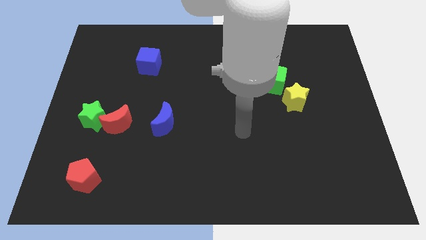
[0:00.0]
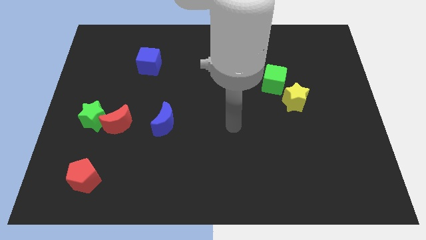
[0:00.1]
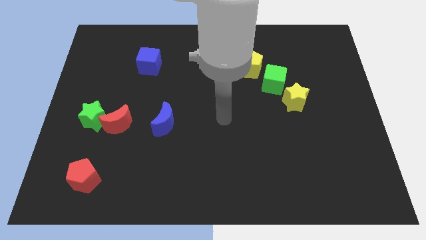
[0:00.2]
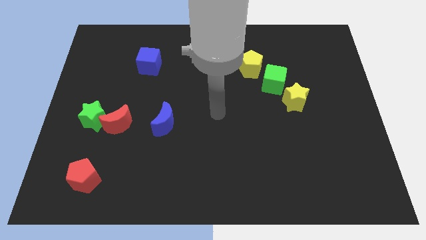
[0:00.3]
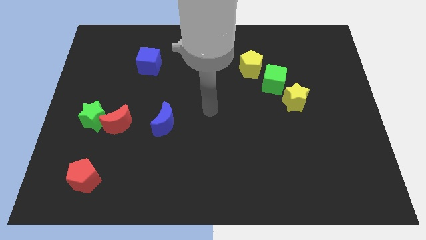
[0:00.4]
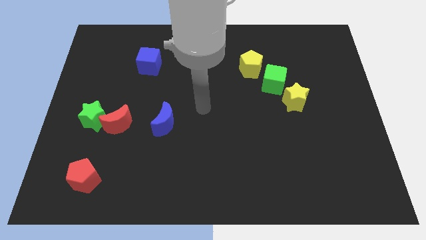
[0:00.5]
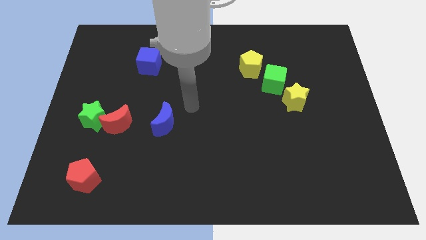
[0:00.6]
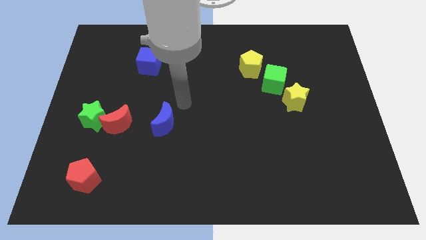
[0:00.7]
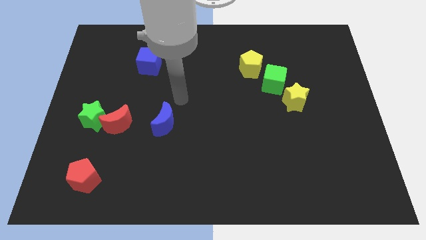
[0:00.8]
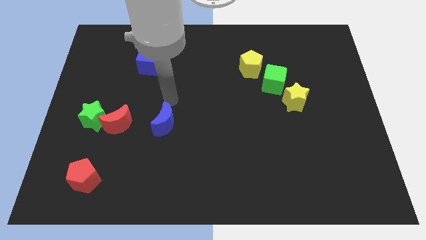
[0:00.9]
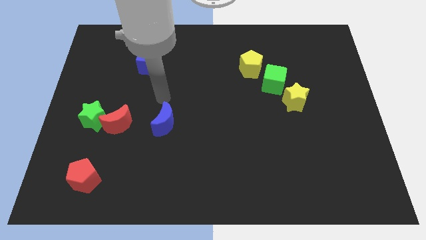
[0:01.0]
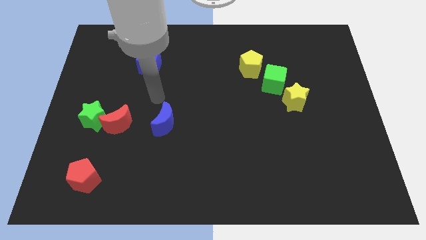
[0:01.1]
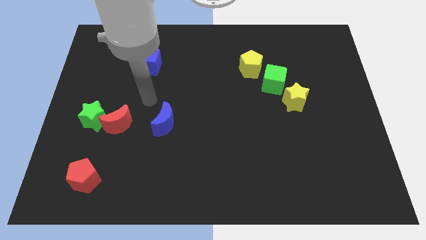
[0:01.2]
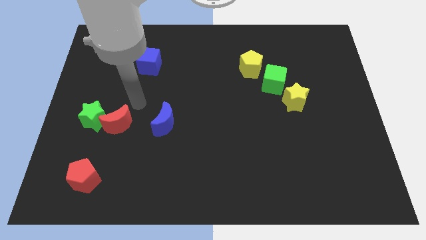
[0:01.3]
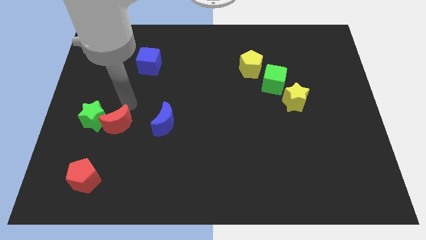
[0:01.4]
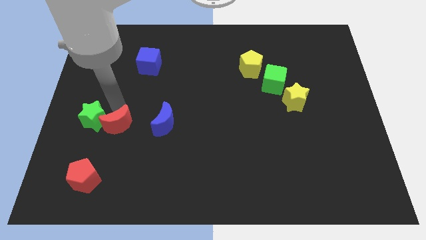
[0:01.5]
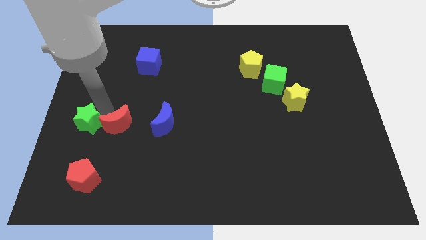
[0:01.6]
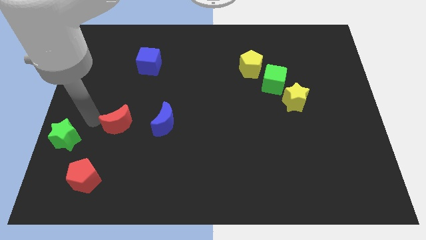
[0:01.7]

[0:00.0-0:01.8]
move the red moon away from the green star

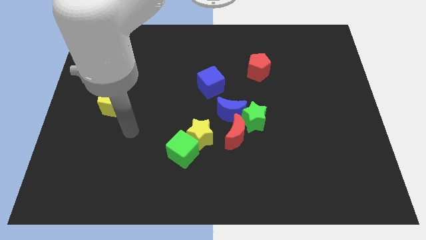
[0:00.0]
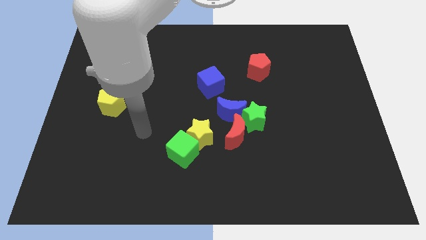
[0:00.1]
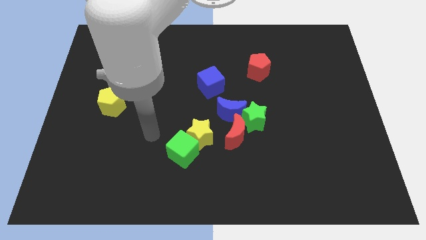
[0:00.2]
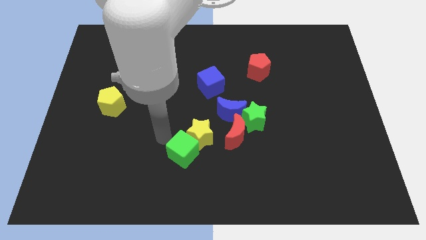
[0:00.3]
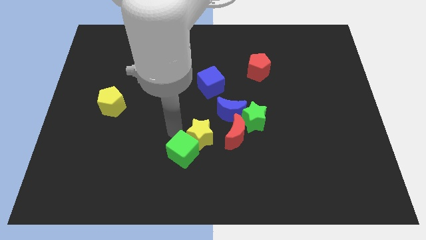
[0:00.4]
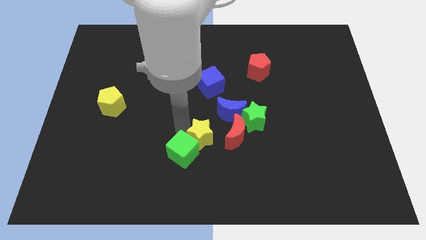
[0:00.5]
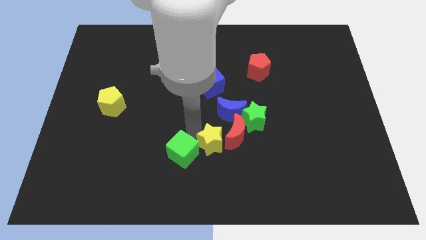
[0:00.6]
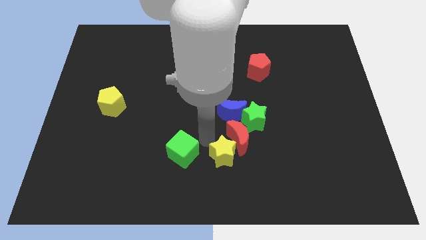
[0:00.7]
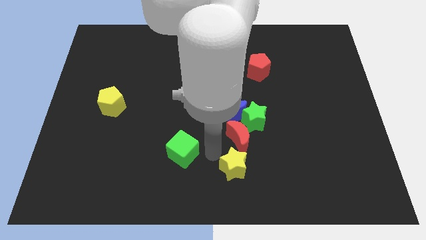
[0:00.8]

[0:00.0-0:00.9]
move the green cube away from the yellow star

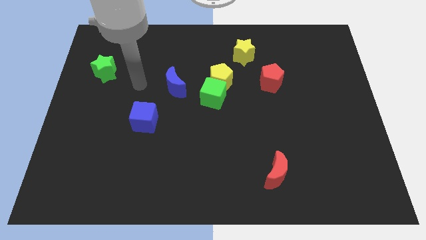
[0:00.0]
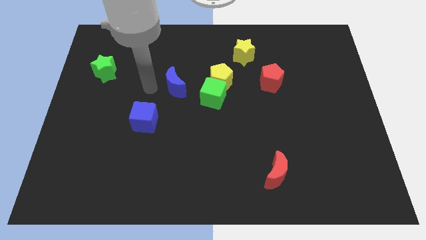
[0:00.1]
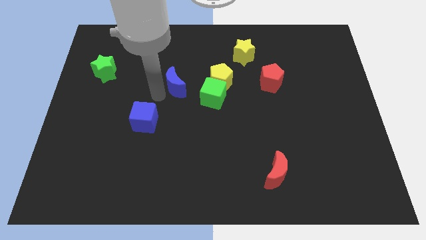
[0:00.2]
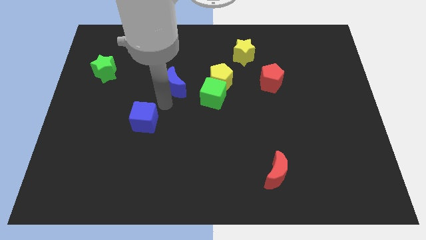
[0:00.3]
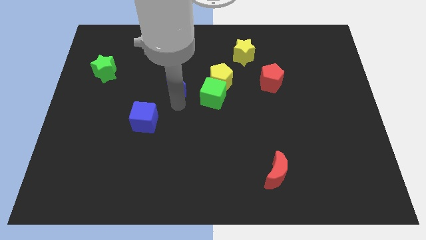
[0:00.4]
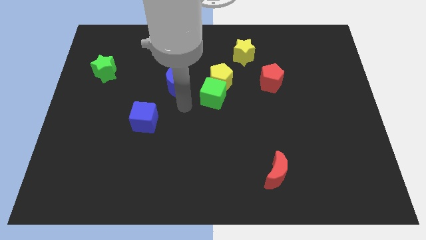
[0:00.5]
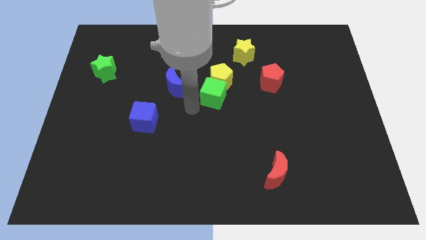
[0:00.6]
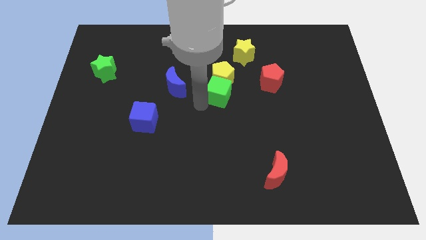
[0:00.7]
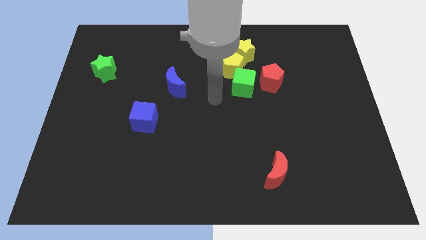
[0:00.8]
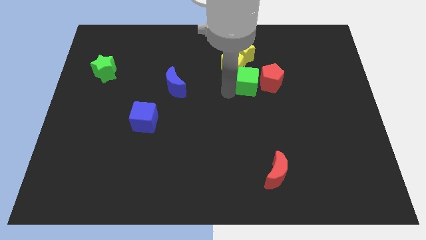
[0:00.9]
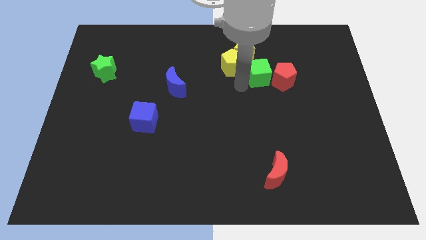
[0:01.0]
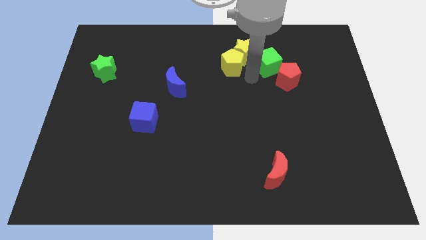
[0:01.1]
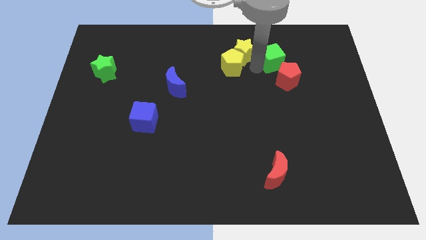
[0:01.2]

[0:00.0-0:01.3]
separate the yellow pentagon from the green cube

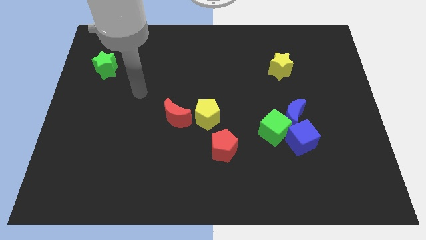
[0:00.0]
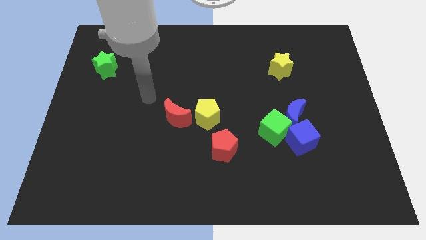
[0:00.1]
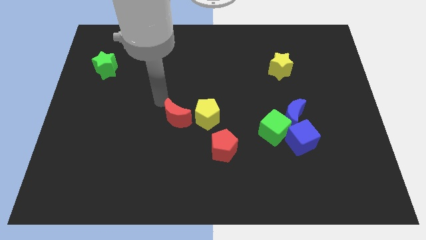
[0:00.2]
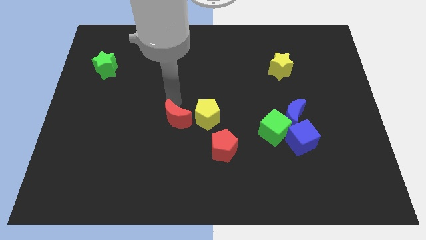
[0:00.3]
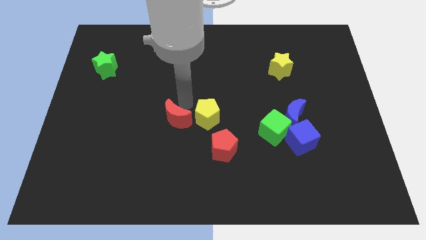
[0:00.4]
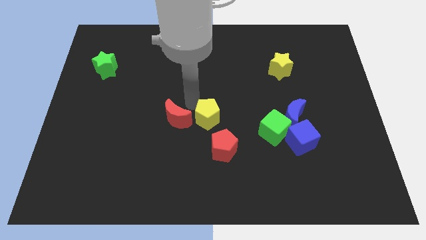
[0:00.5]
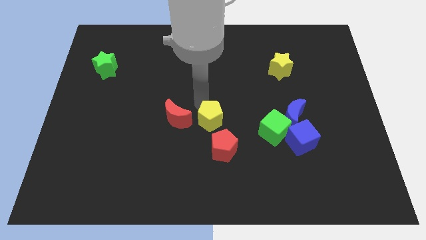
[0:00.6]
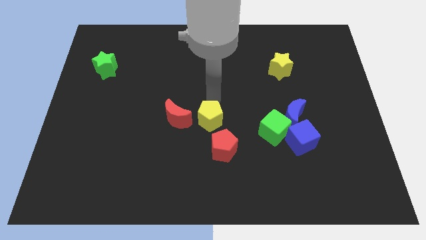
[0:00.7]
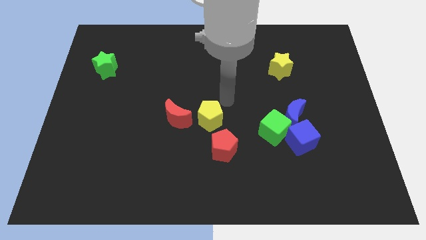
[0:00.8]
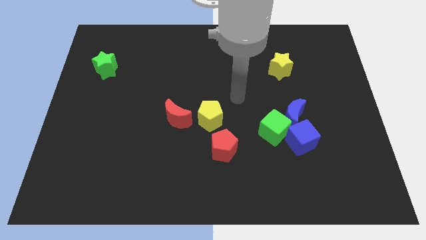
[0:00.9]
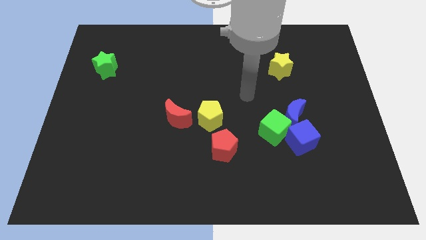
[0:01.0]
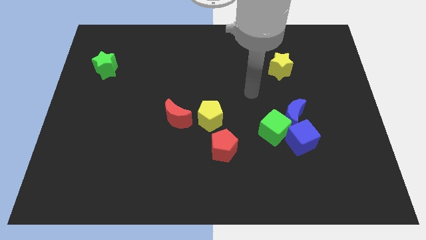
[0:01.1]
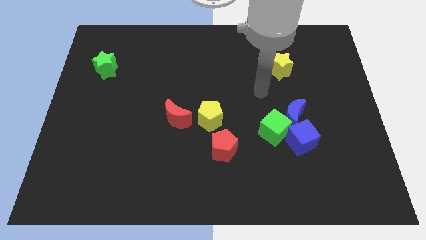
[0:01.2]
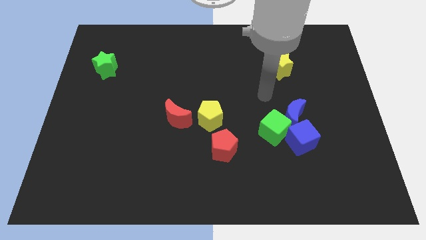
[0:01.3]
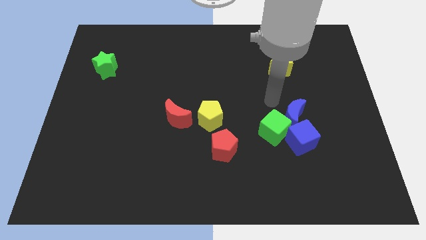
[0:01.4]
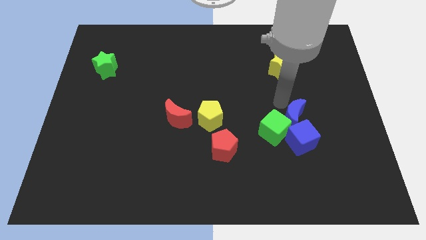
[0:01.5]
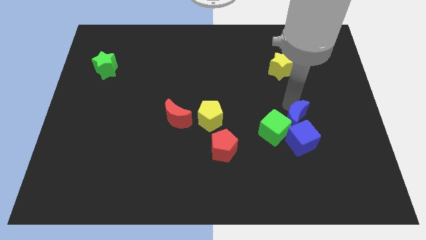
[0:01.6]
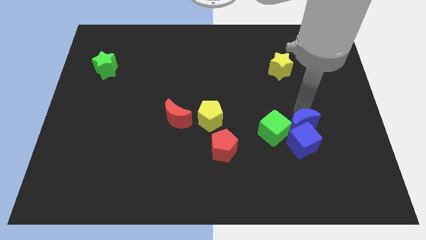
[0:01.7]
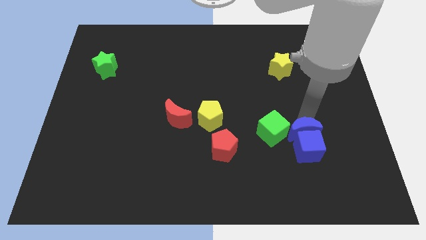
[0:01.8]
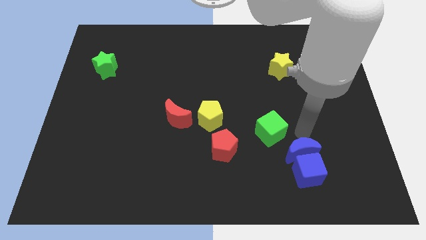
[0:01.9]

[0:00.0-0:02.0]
pull the green cube apart from the blue moon and blue cube

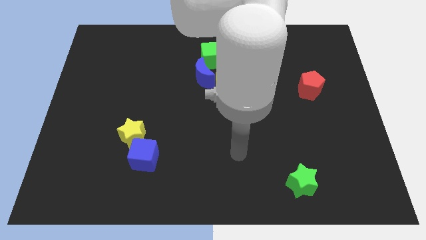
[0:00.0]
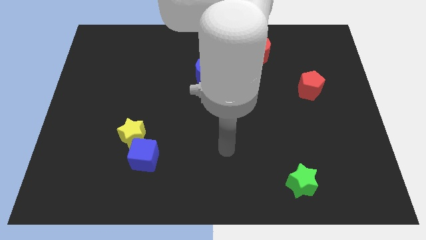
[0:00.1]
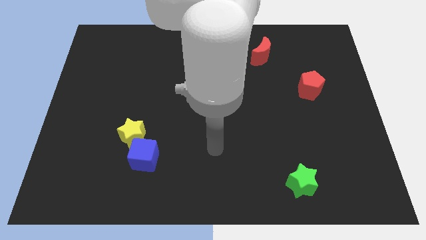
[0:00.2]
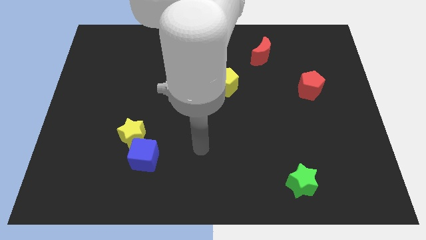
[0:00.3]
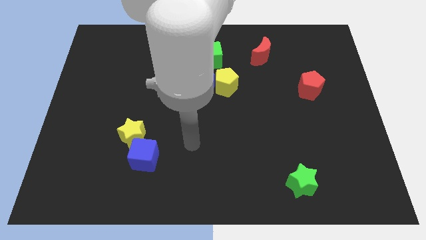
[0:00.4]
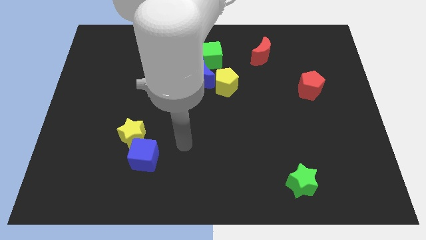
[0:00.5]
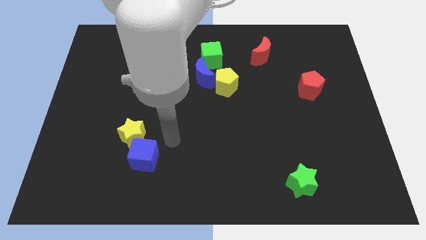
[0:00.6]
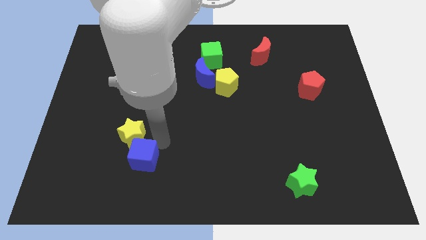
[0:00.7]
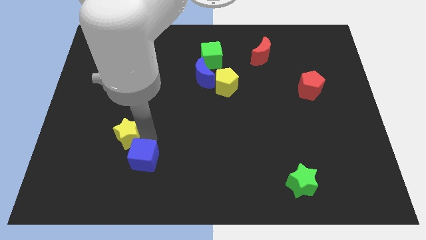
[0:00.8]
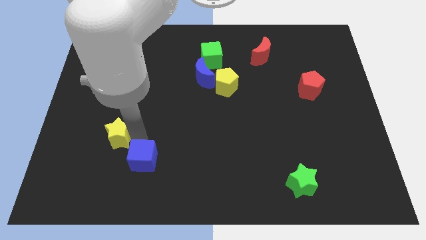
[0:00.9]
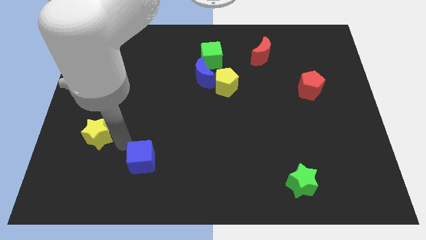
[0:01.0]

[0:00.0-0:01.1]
pull the blue cube apart from the yellow star

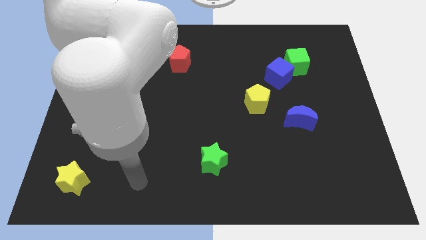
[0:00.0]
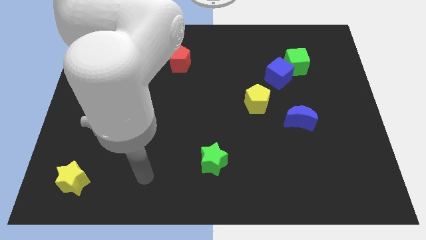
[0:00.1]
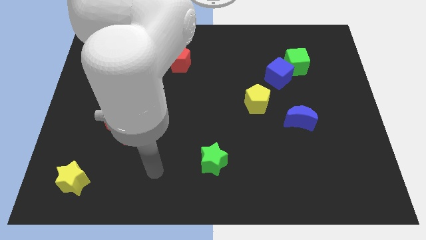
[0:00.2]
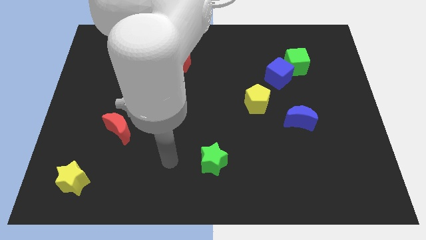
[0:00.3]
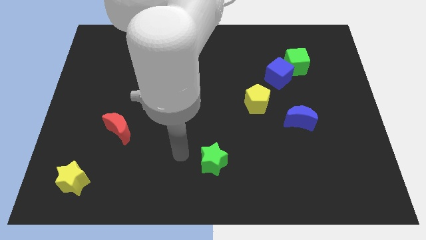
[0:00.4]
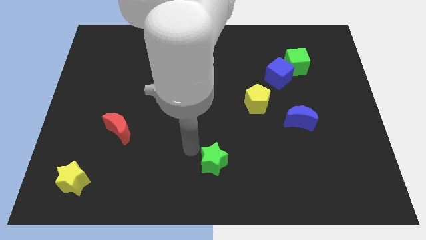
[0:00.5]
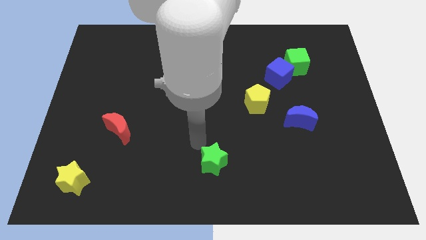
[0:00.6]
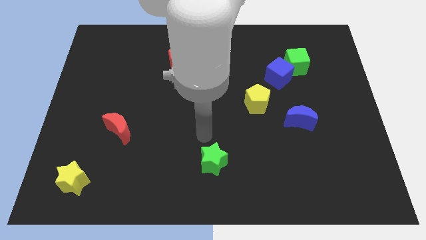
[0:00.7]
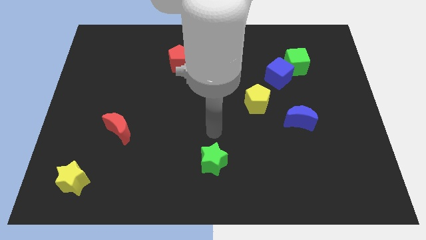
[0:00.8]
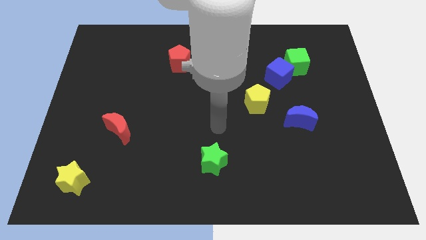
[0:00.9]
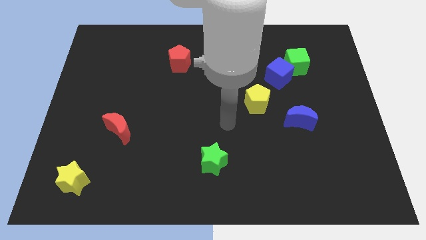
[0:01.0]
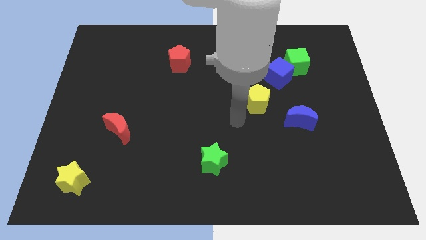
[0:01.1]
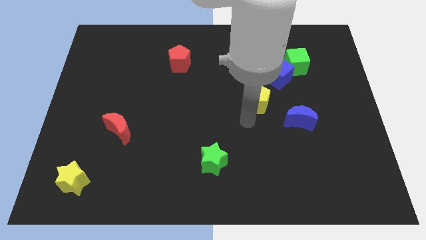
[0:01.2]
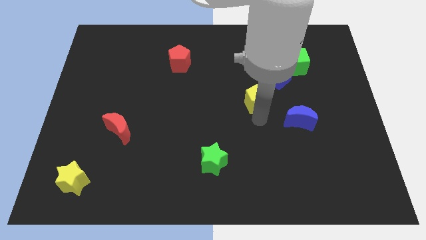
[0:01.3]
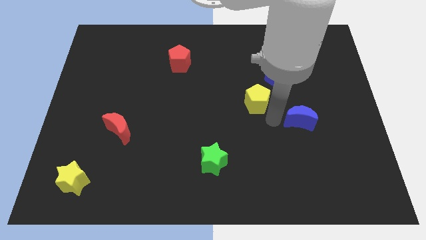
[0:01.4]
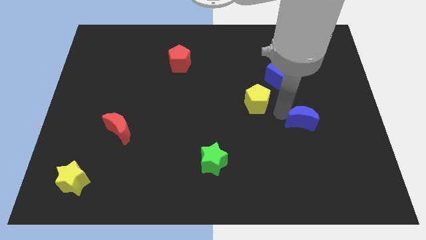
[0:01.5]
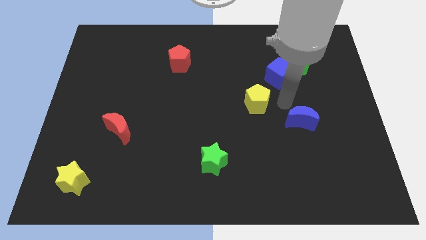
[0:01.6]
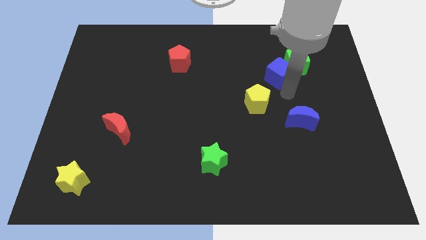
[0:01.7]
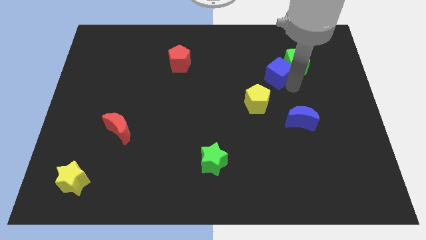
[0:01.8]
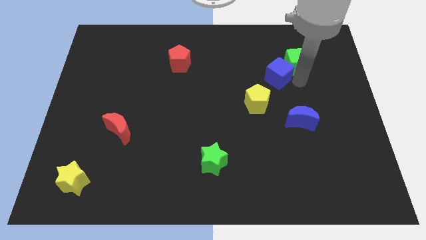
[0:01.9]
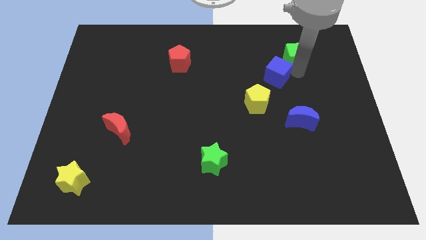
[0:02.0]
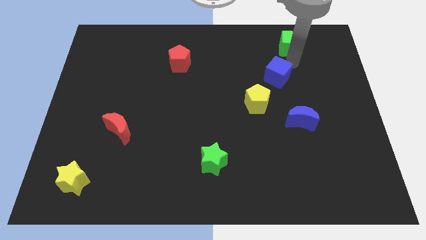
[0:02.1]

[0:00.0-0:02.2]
move the blue cube away from the green cube
